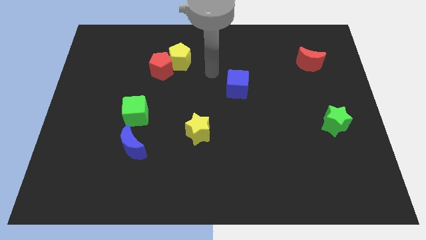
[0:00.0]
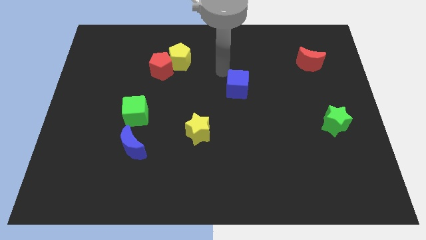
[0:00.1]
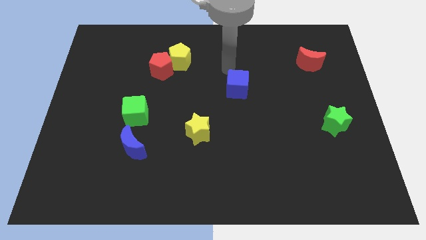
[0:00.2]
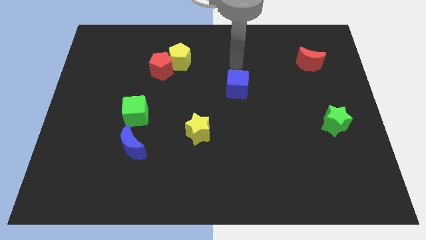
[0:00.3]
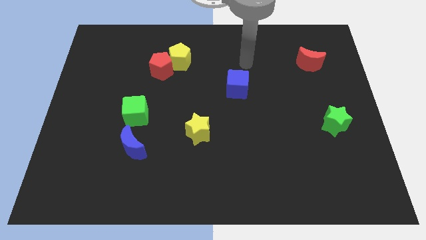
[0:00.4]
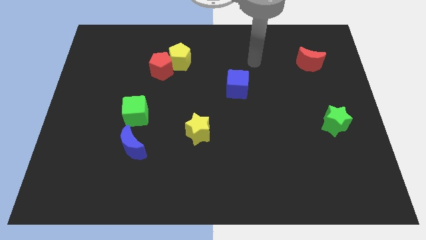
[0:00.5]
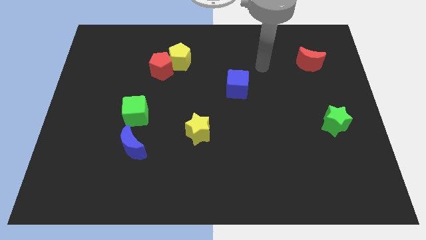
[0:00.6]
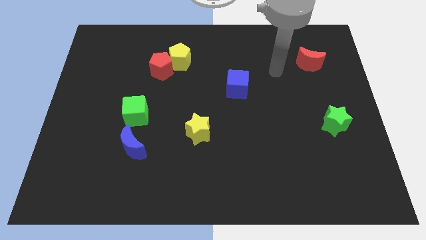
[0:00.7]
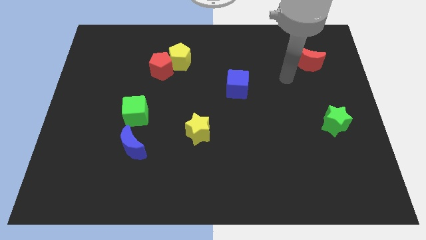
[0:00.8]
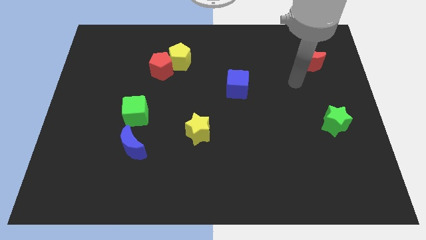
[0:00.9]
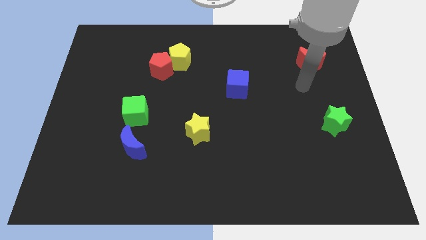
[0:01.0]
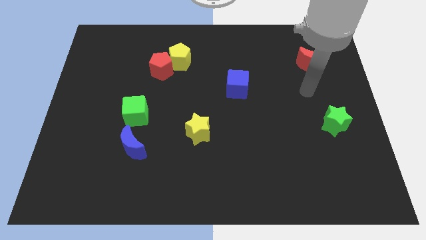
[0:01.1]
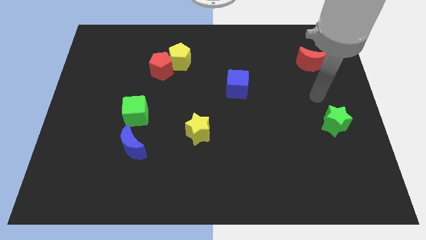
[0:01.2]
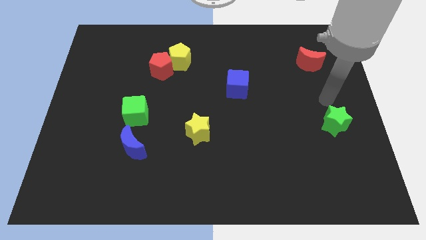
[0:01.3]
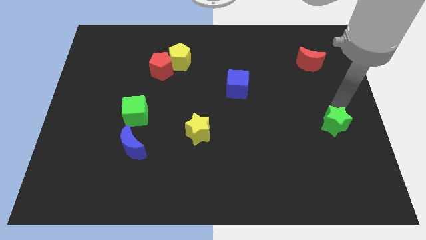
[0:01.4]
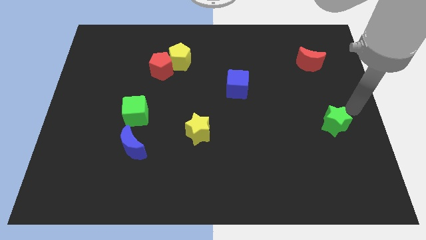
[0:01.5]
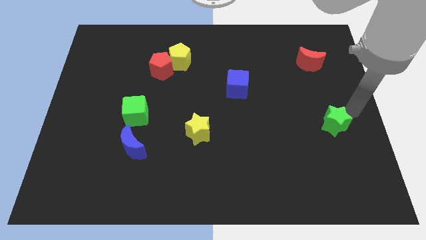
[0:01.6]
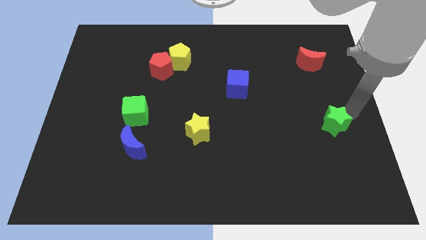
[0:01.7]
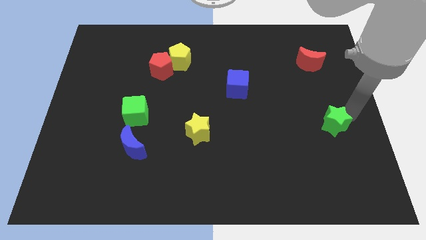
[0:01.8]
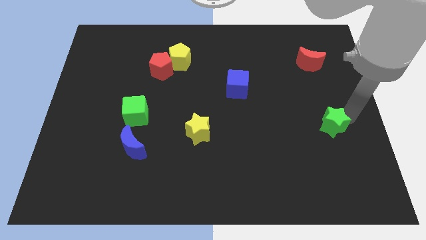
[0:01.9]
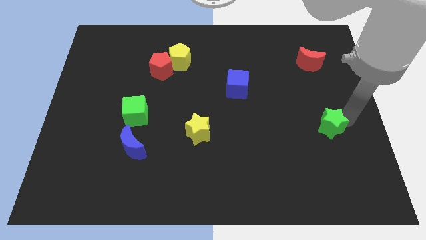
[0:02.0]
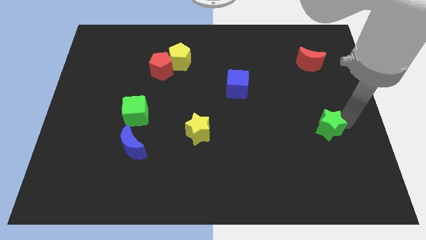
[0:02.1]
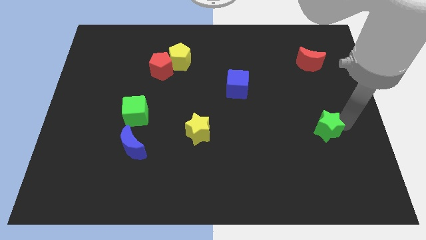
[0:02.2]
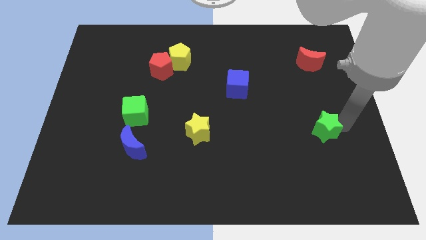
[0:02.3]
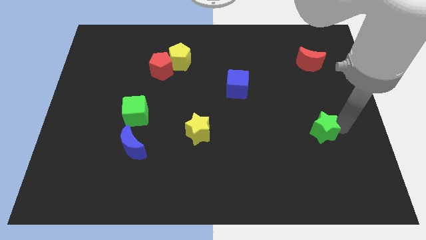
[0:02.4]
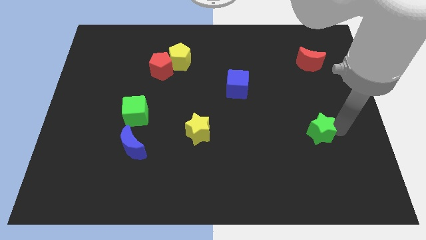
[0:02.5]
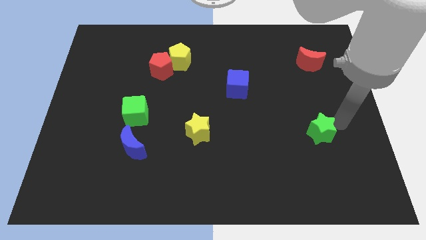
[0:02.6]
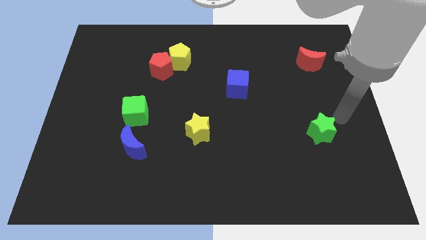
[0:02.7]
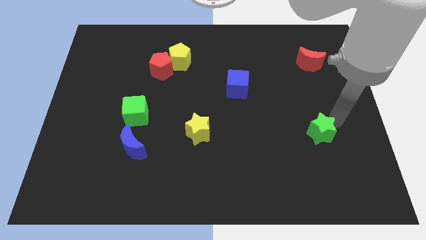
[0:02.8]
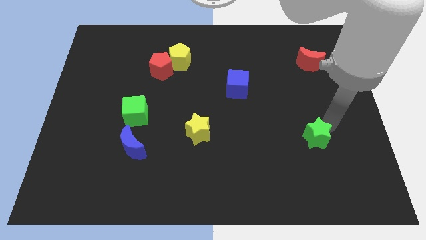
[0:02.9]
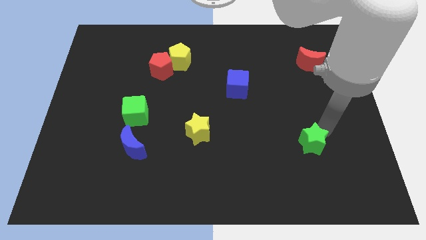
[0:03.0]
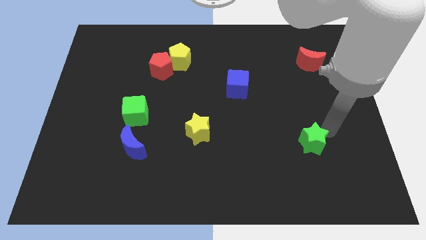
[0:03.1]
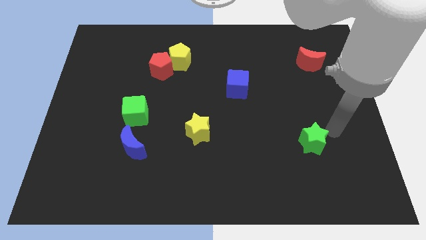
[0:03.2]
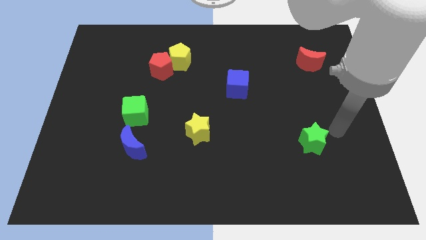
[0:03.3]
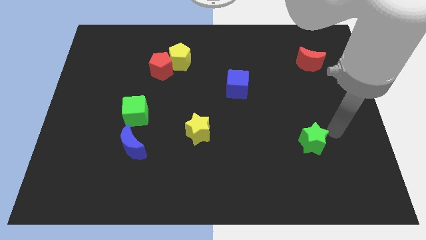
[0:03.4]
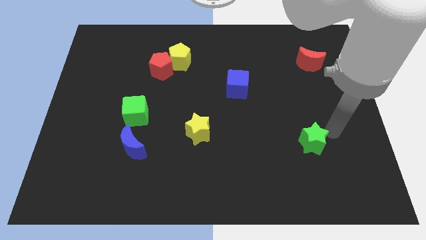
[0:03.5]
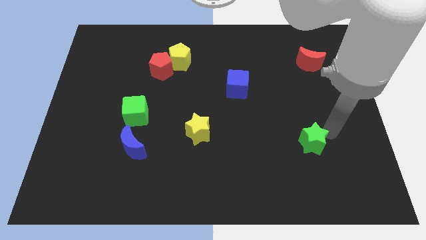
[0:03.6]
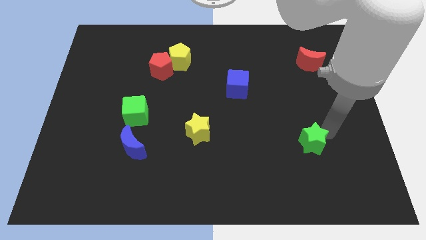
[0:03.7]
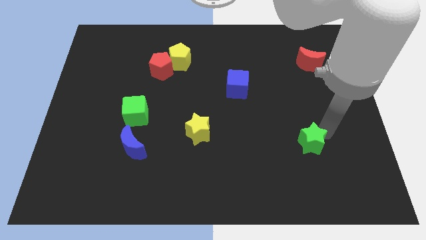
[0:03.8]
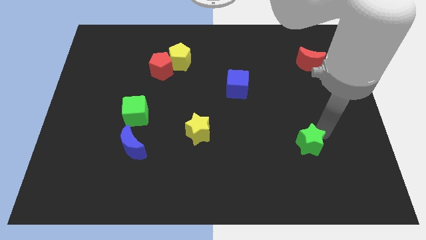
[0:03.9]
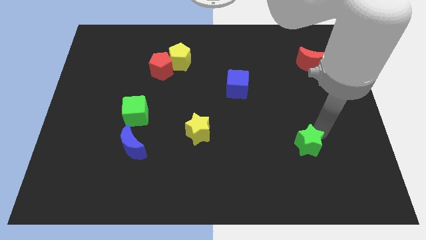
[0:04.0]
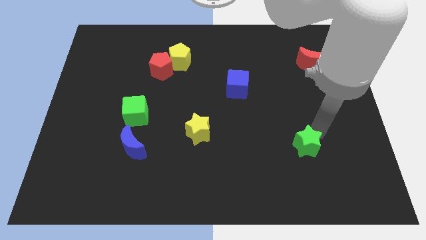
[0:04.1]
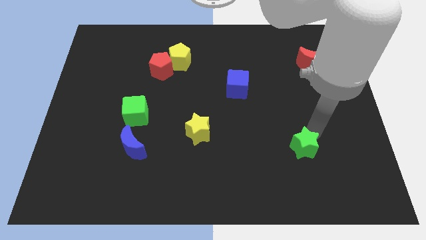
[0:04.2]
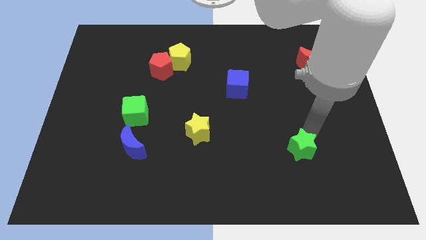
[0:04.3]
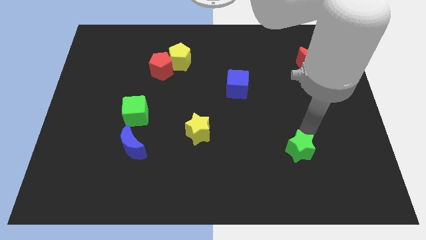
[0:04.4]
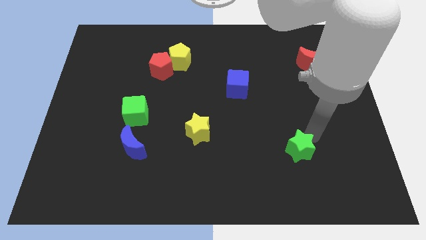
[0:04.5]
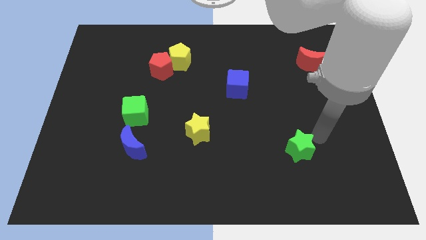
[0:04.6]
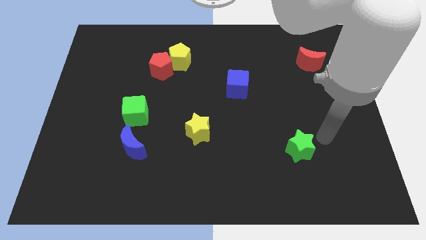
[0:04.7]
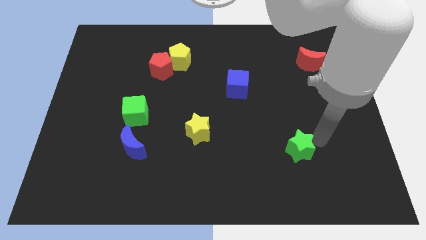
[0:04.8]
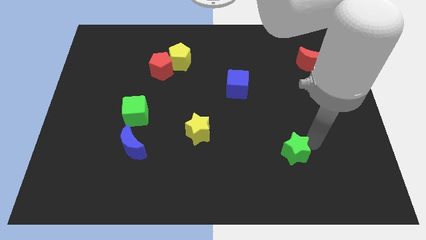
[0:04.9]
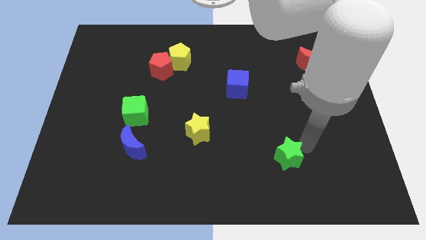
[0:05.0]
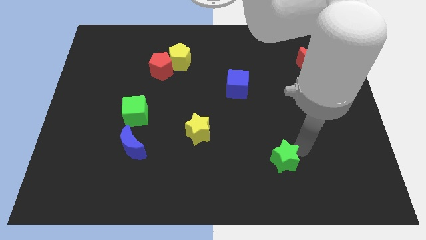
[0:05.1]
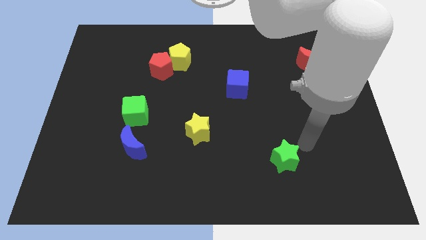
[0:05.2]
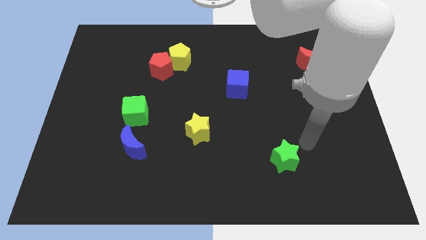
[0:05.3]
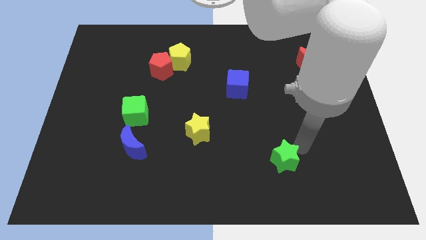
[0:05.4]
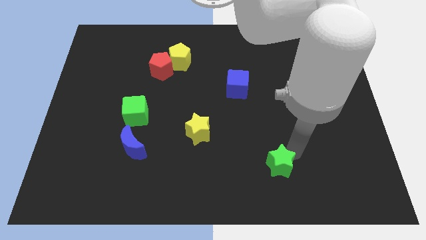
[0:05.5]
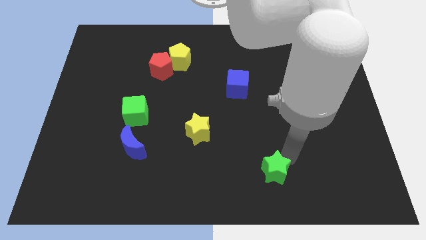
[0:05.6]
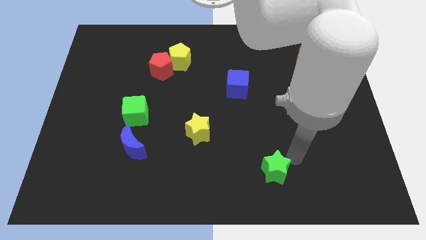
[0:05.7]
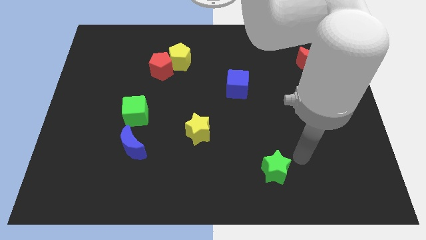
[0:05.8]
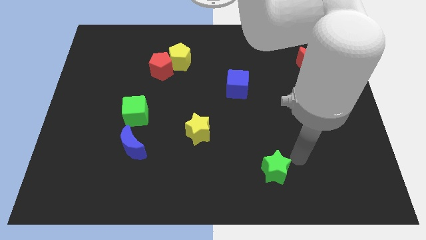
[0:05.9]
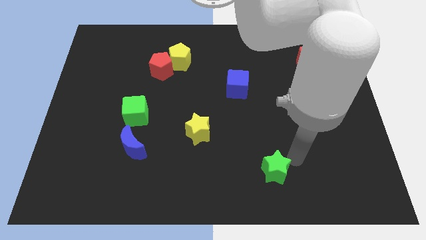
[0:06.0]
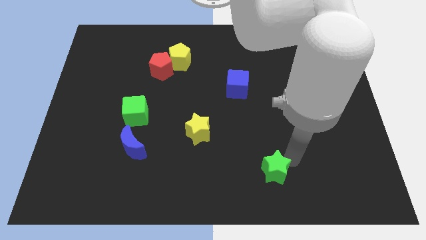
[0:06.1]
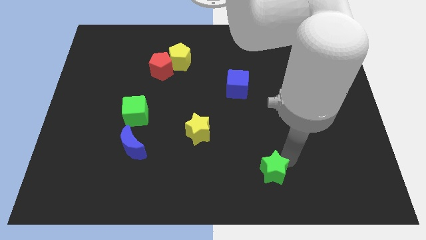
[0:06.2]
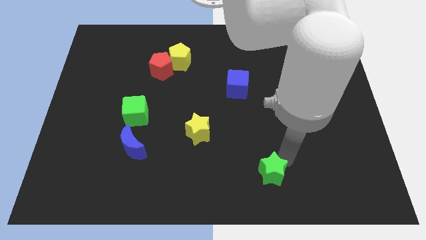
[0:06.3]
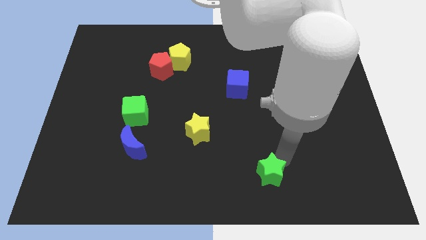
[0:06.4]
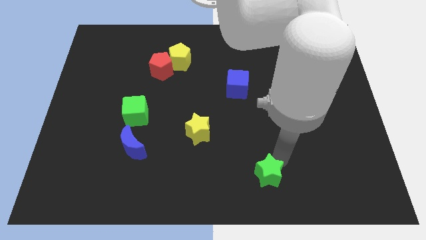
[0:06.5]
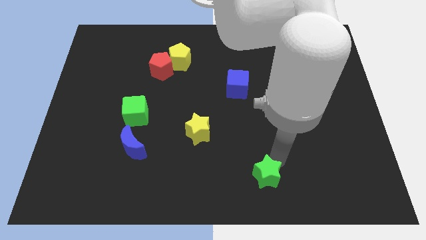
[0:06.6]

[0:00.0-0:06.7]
slide the green star to the bottom
